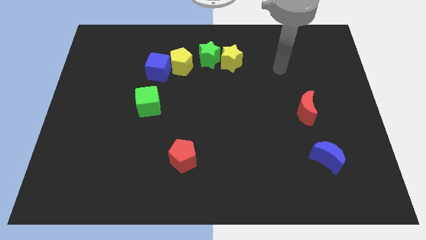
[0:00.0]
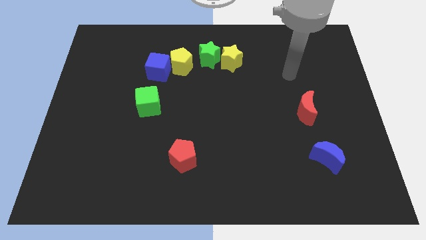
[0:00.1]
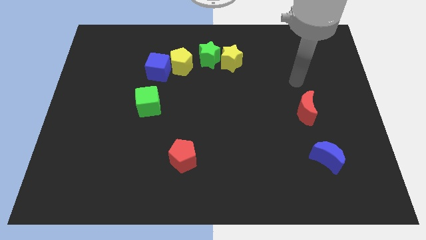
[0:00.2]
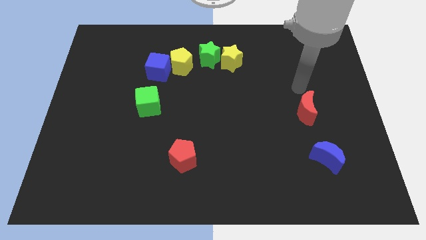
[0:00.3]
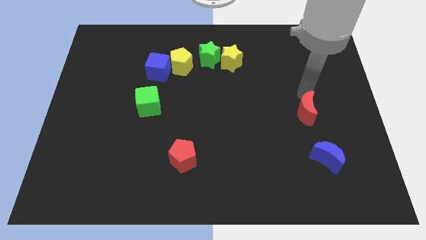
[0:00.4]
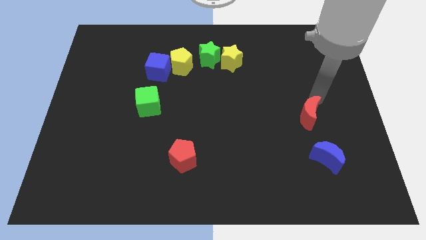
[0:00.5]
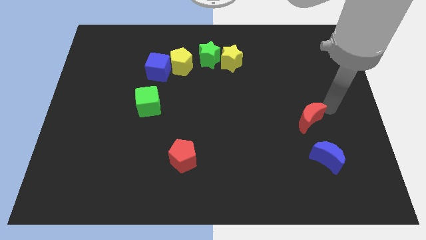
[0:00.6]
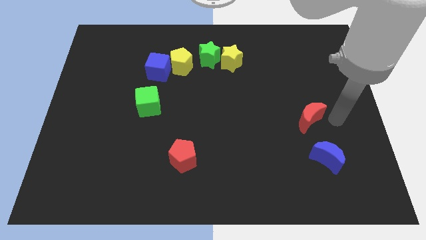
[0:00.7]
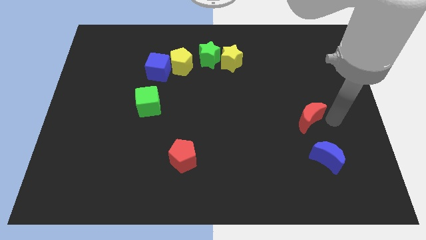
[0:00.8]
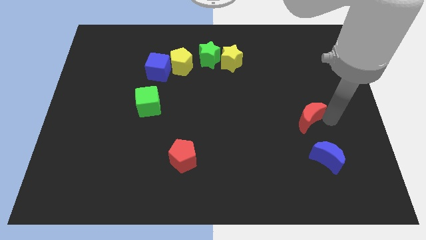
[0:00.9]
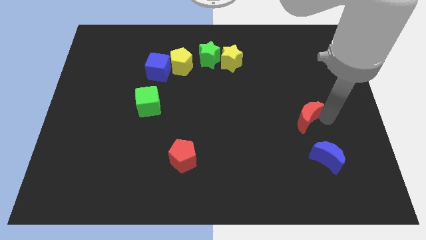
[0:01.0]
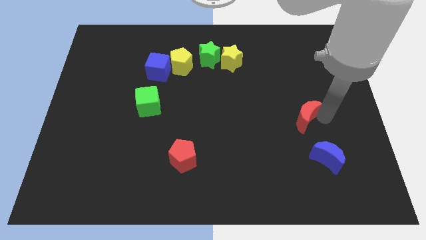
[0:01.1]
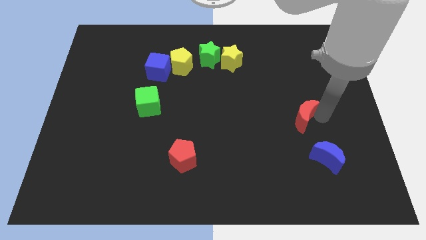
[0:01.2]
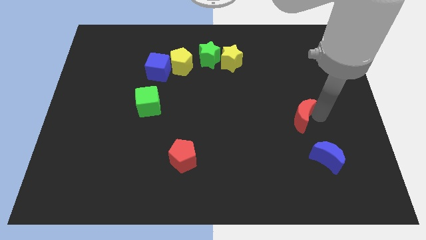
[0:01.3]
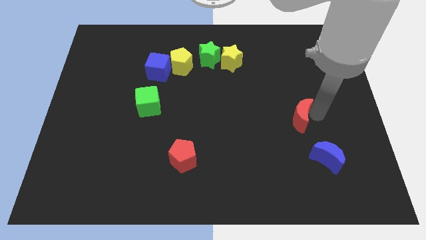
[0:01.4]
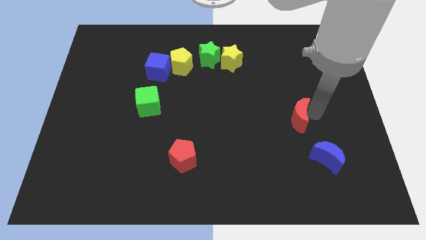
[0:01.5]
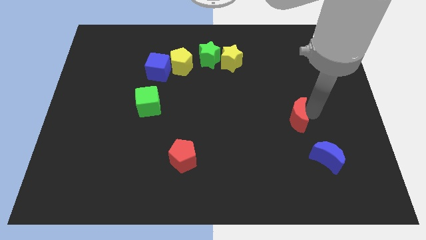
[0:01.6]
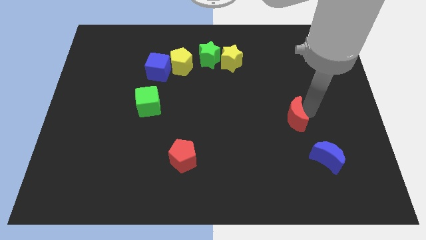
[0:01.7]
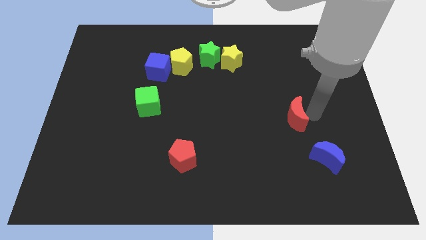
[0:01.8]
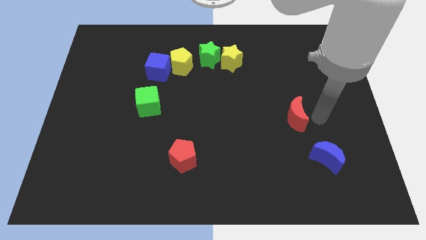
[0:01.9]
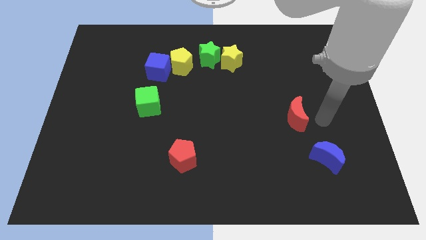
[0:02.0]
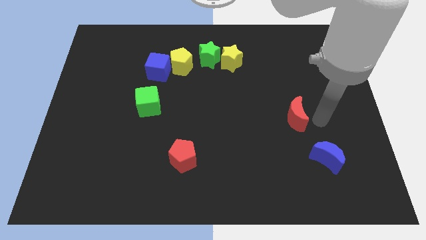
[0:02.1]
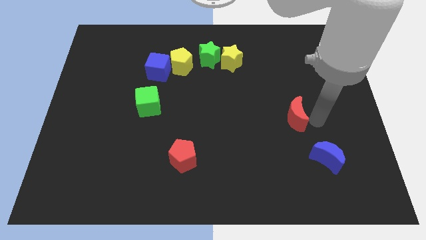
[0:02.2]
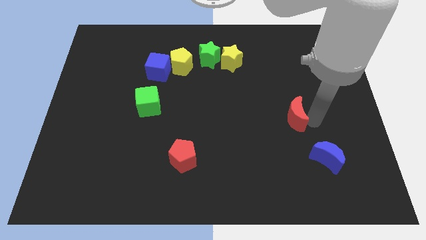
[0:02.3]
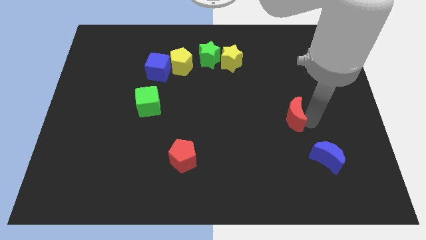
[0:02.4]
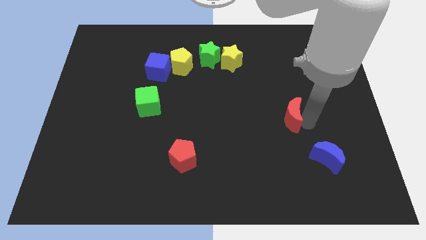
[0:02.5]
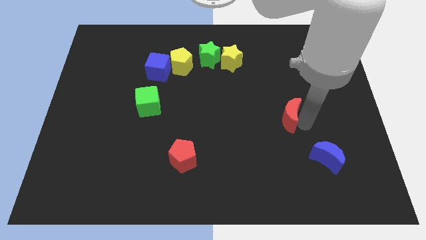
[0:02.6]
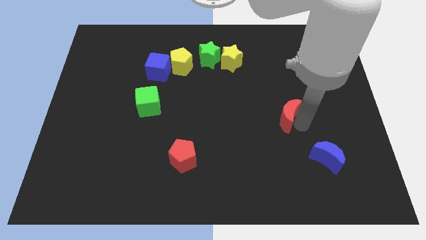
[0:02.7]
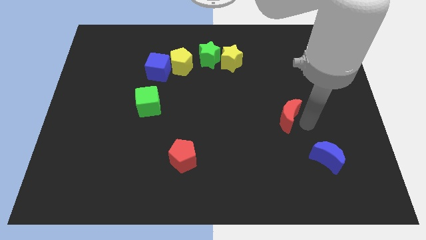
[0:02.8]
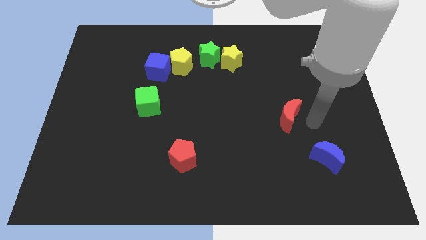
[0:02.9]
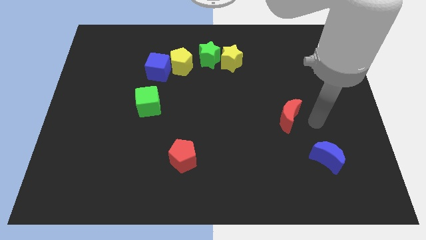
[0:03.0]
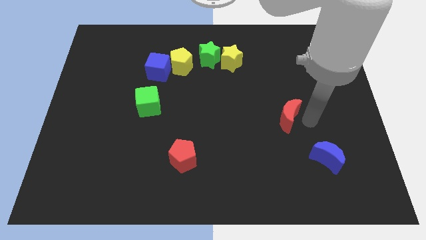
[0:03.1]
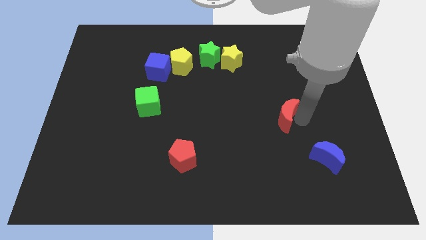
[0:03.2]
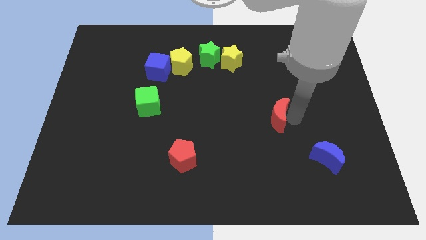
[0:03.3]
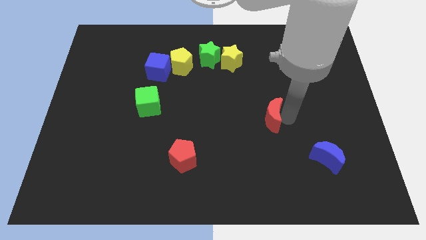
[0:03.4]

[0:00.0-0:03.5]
slightly push the red moon to the left

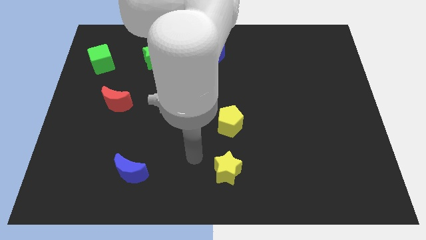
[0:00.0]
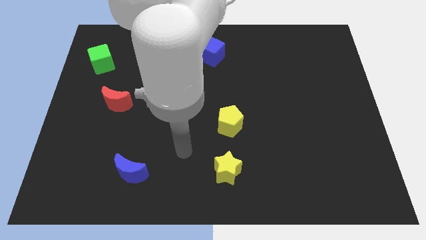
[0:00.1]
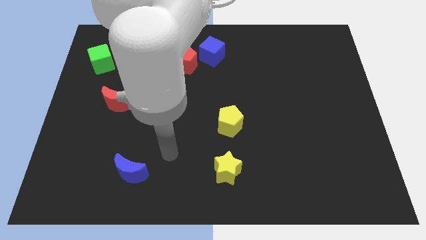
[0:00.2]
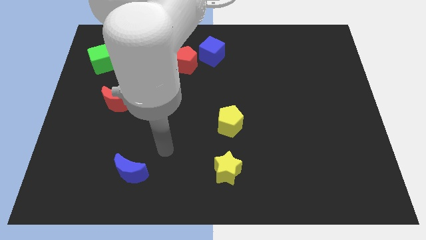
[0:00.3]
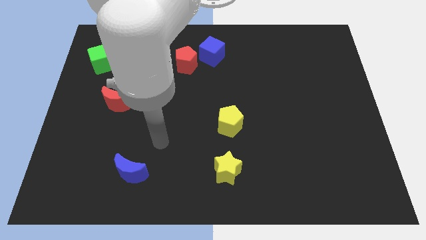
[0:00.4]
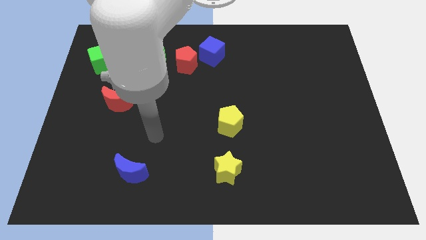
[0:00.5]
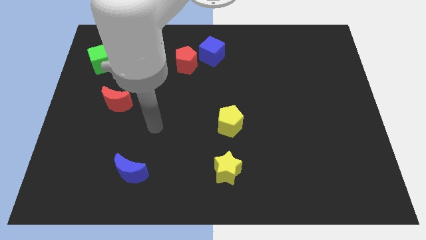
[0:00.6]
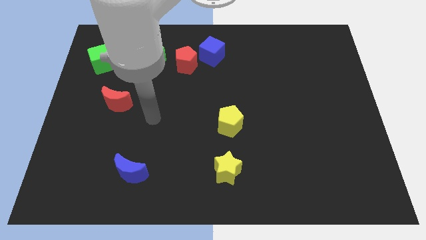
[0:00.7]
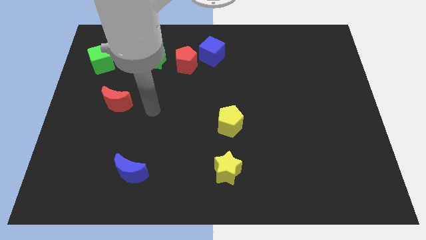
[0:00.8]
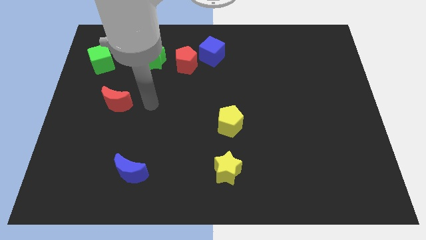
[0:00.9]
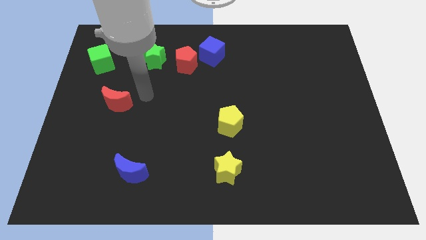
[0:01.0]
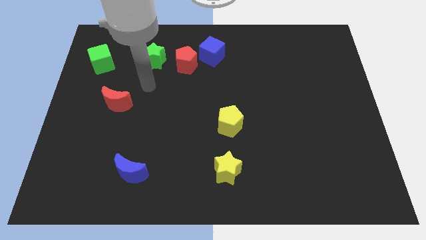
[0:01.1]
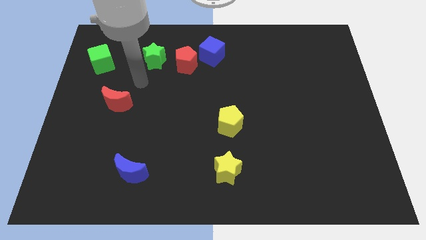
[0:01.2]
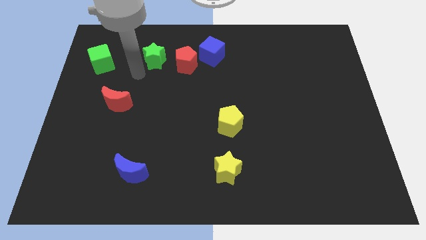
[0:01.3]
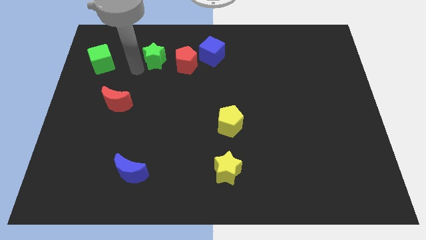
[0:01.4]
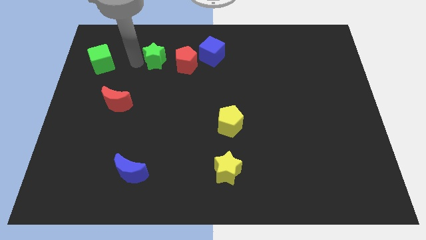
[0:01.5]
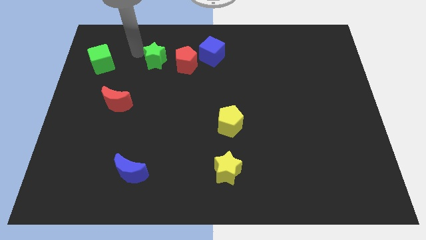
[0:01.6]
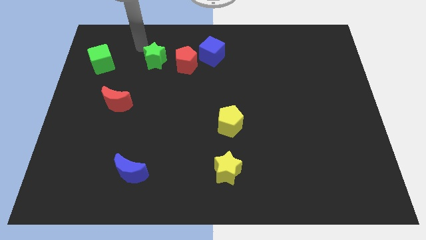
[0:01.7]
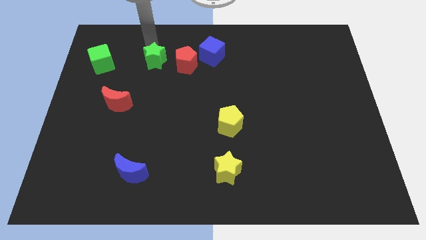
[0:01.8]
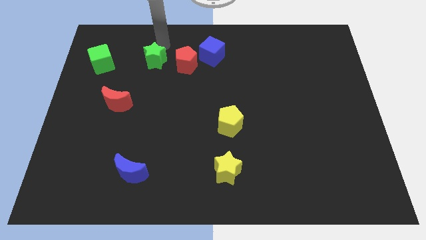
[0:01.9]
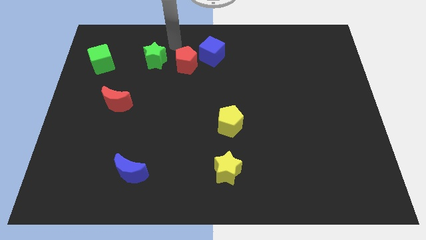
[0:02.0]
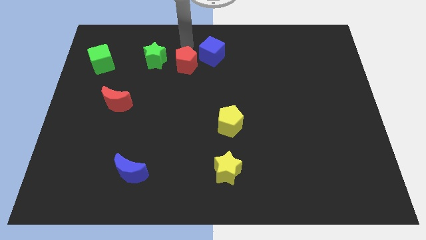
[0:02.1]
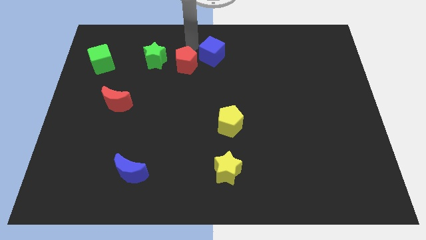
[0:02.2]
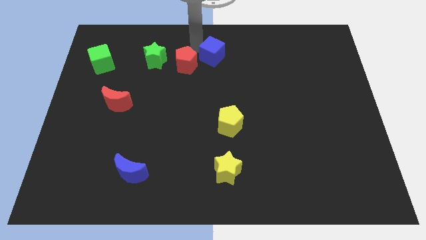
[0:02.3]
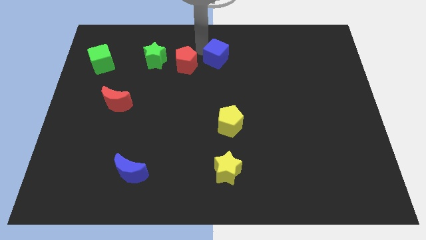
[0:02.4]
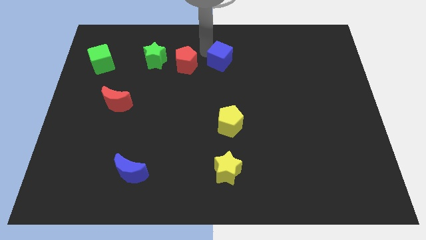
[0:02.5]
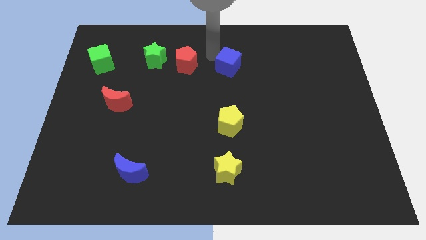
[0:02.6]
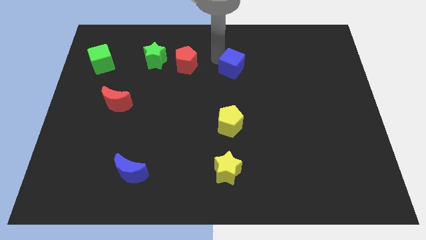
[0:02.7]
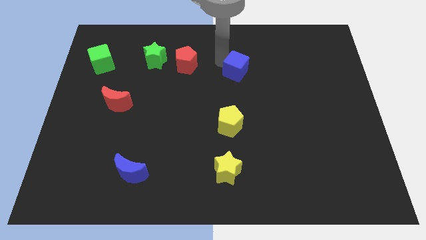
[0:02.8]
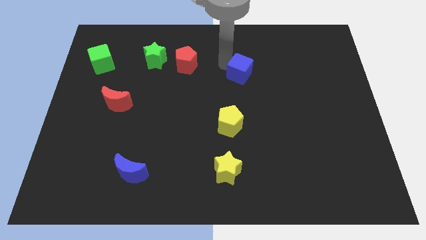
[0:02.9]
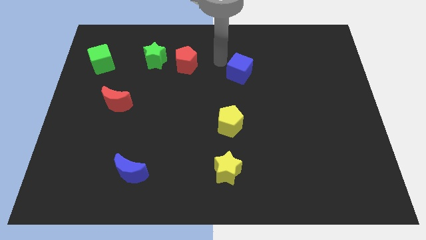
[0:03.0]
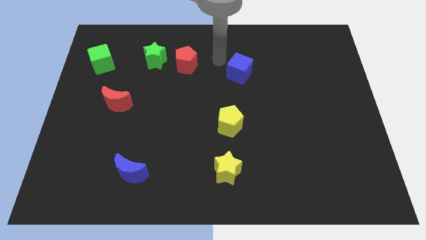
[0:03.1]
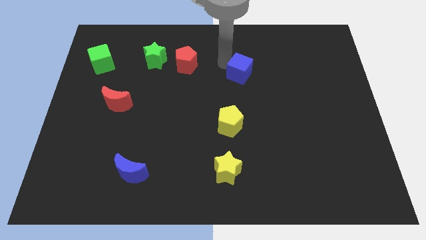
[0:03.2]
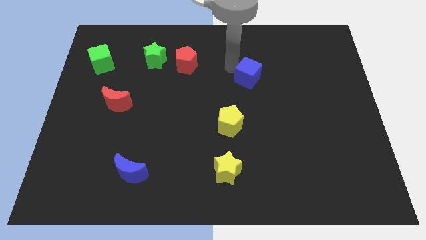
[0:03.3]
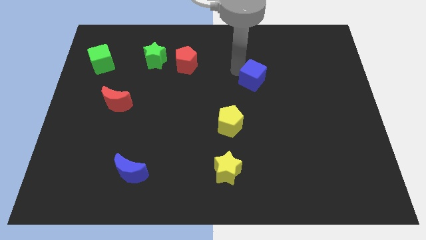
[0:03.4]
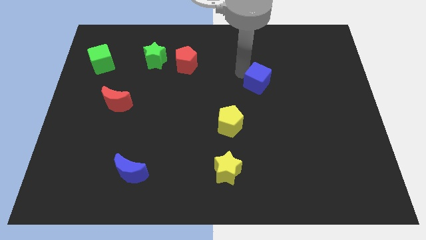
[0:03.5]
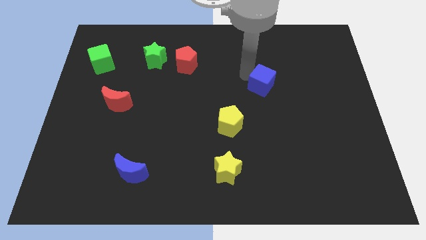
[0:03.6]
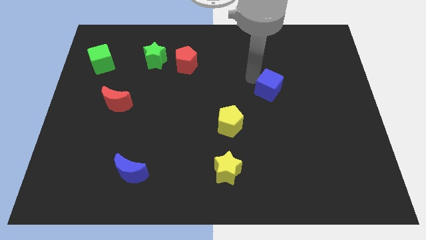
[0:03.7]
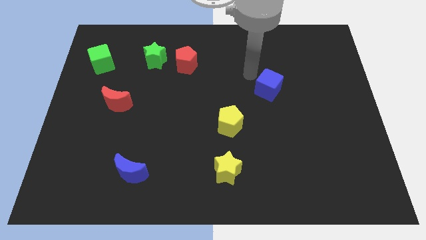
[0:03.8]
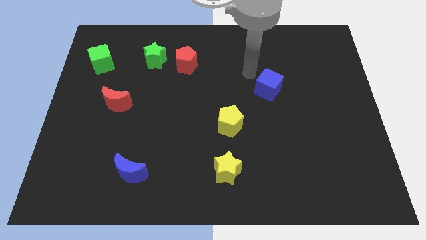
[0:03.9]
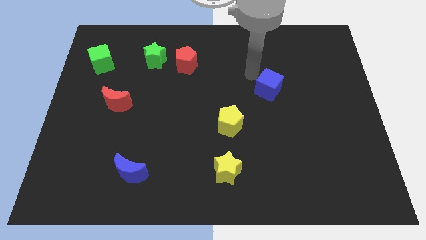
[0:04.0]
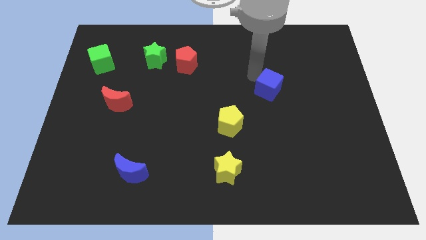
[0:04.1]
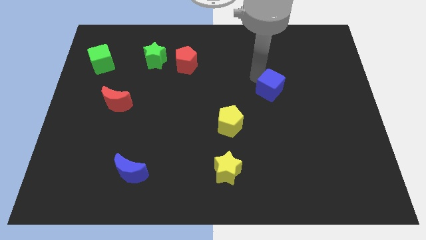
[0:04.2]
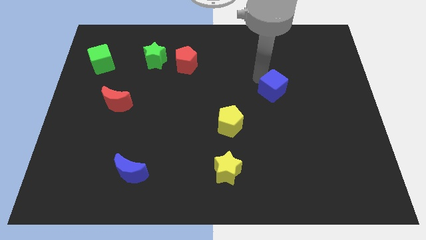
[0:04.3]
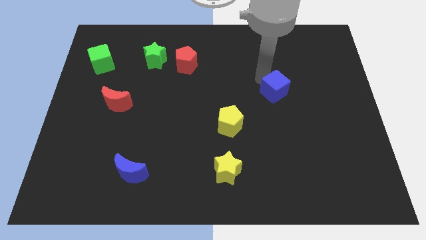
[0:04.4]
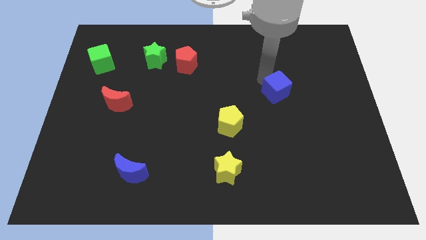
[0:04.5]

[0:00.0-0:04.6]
push the blue cube downwards and to the right diagonally
